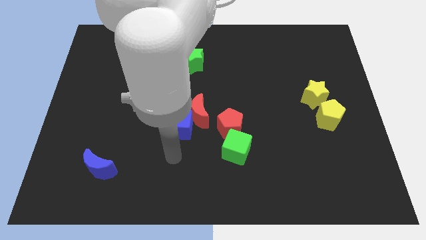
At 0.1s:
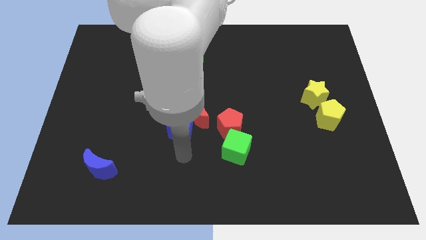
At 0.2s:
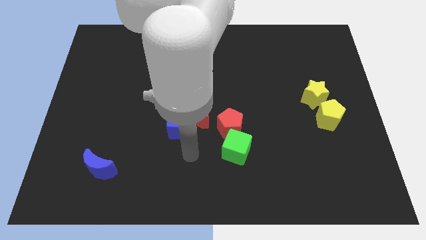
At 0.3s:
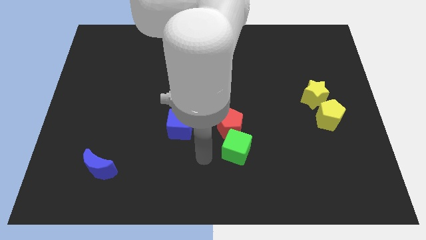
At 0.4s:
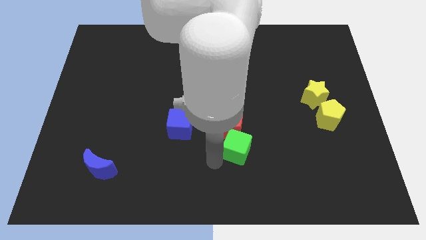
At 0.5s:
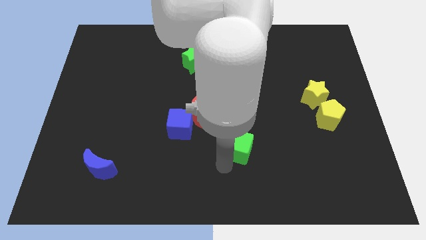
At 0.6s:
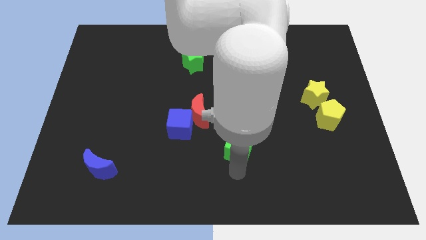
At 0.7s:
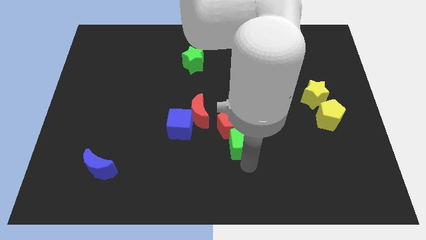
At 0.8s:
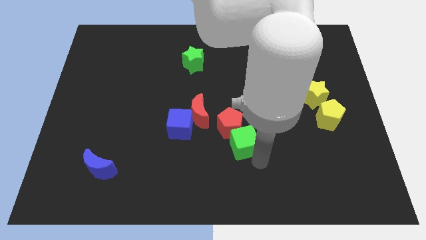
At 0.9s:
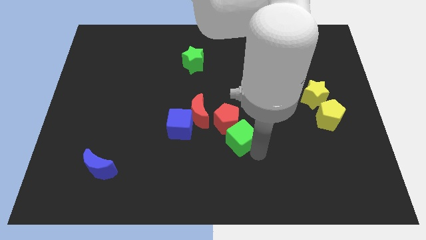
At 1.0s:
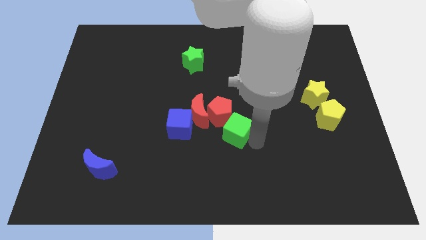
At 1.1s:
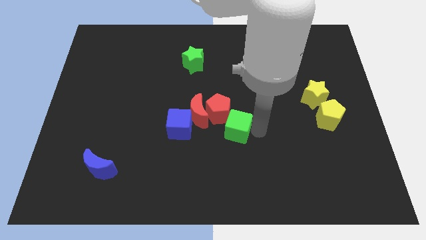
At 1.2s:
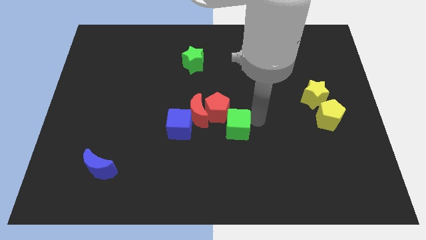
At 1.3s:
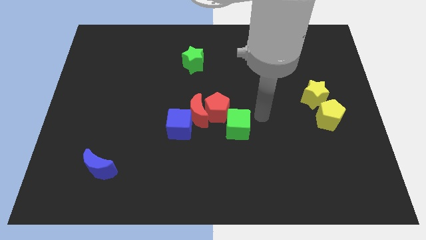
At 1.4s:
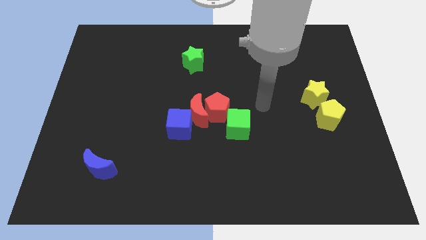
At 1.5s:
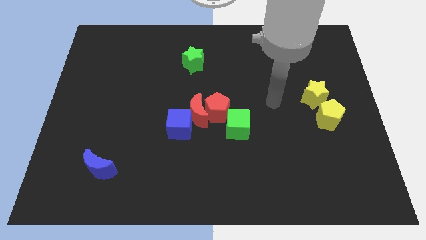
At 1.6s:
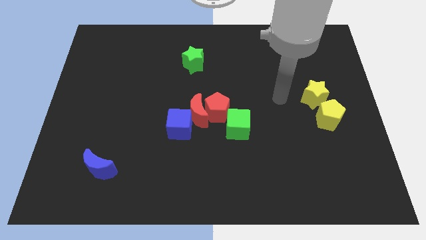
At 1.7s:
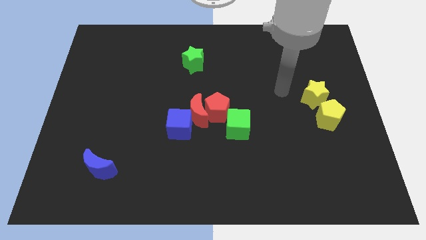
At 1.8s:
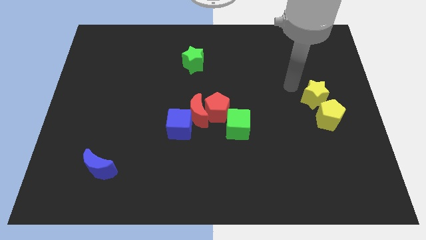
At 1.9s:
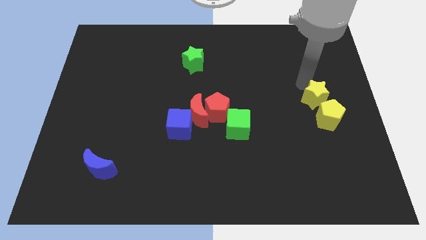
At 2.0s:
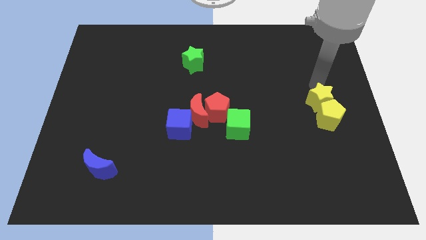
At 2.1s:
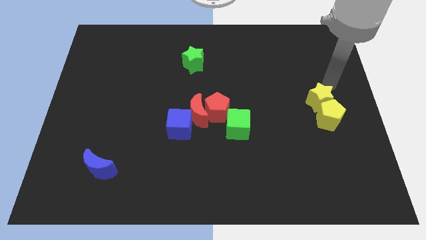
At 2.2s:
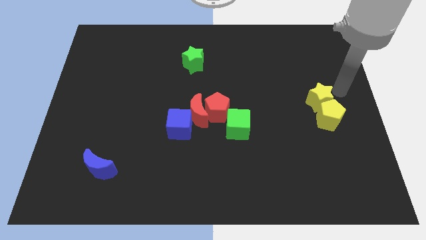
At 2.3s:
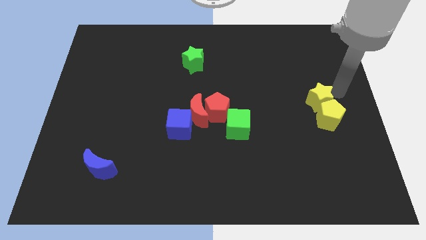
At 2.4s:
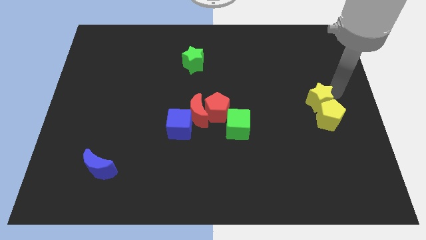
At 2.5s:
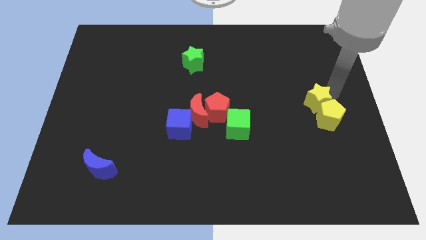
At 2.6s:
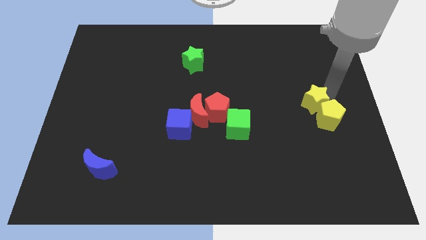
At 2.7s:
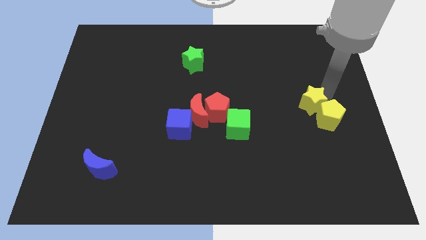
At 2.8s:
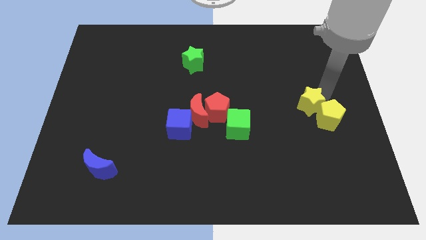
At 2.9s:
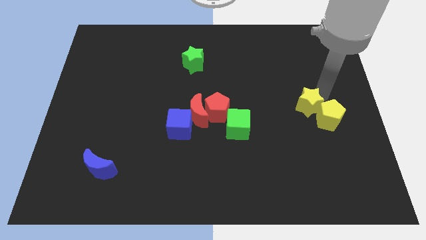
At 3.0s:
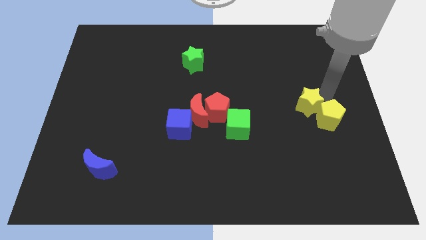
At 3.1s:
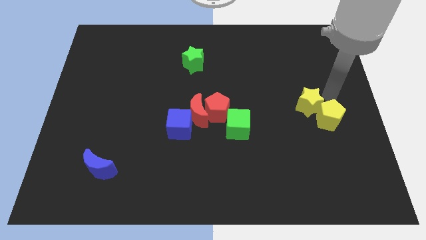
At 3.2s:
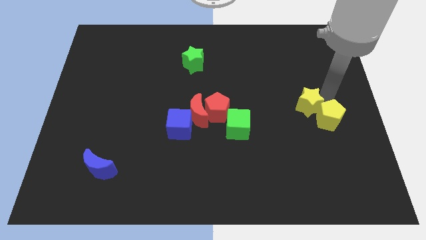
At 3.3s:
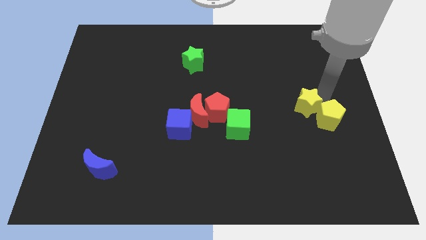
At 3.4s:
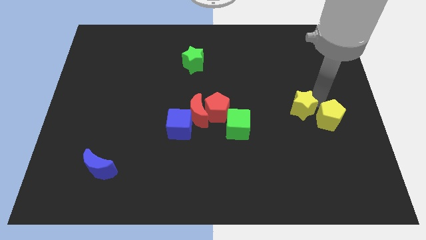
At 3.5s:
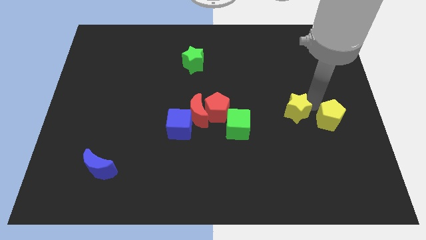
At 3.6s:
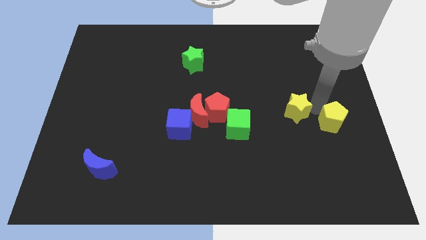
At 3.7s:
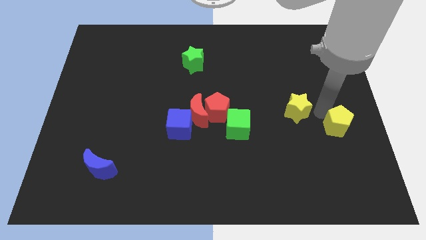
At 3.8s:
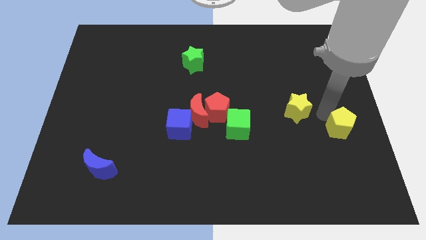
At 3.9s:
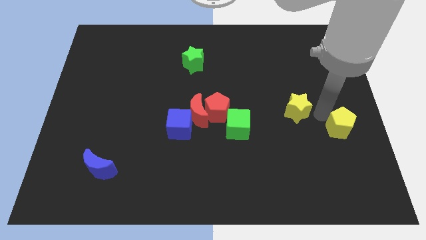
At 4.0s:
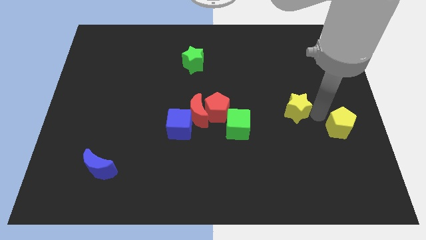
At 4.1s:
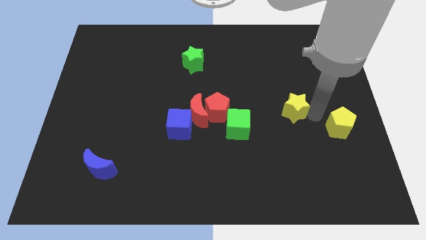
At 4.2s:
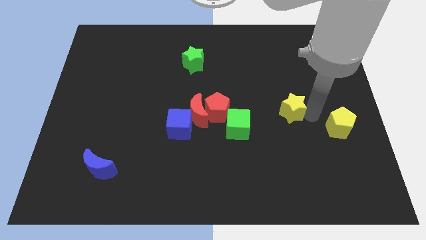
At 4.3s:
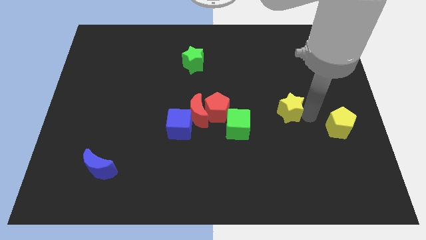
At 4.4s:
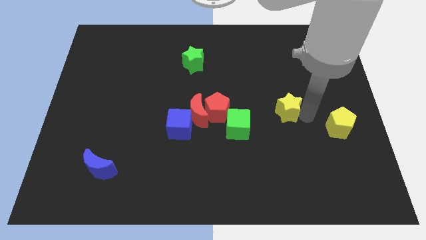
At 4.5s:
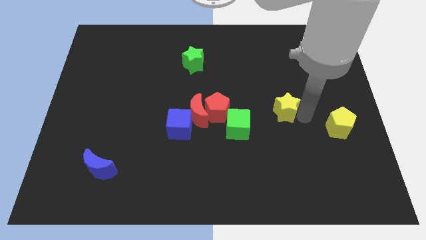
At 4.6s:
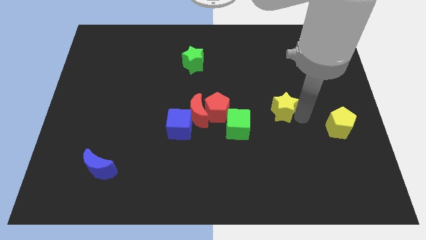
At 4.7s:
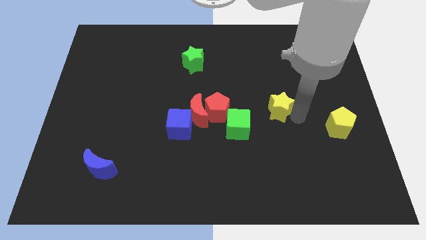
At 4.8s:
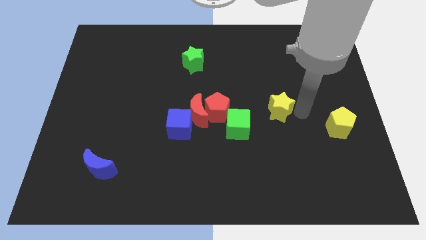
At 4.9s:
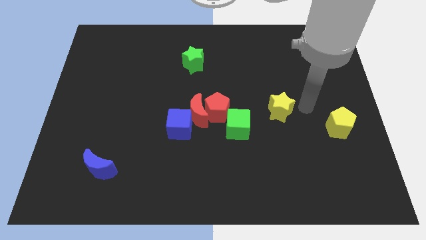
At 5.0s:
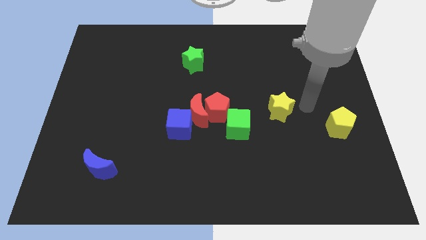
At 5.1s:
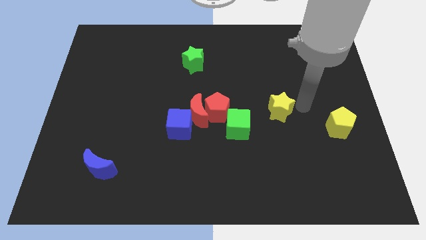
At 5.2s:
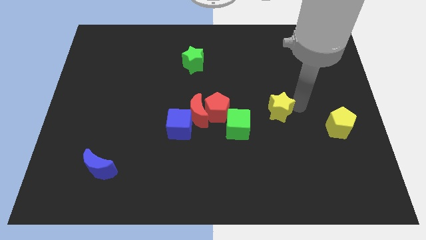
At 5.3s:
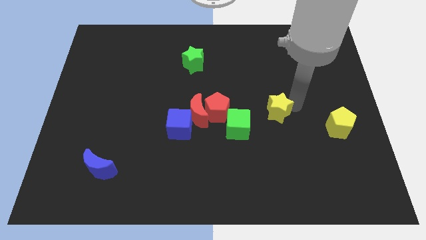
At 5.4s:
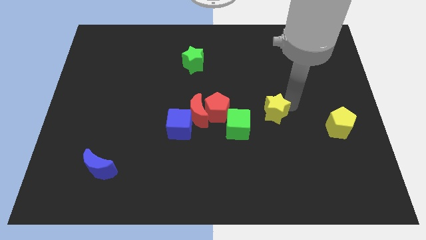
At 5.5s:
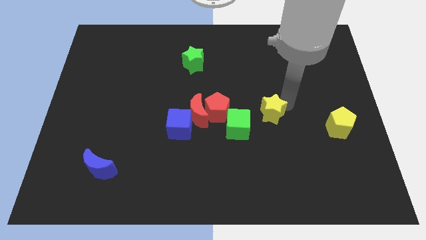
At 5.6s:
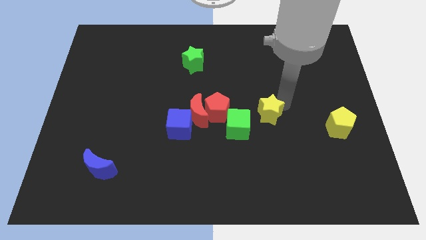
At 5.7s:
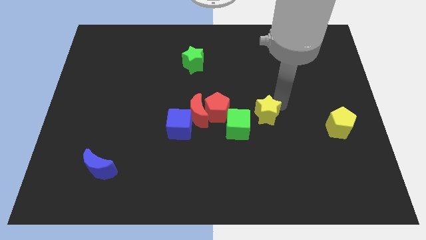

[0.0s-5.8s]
slide the yellow star just right of the red moon

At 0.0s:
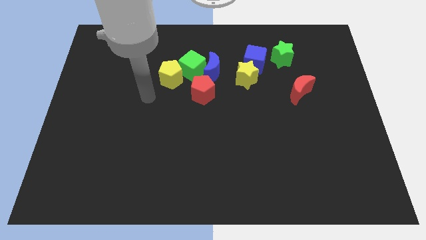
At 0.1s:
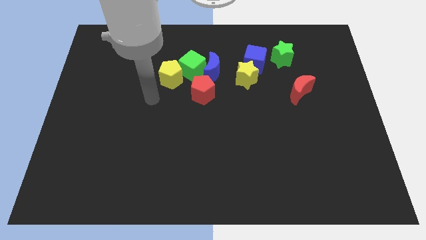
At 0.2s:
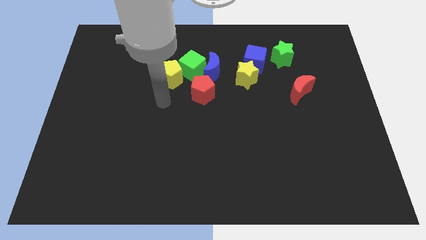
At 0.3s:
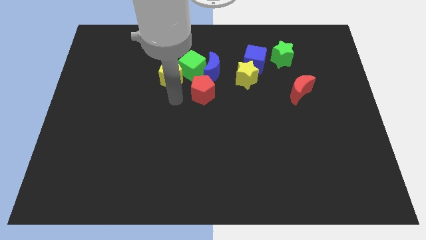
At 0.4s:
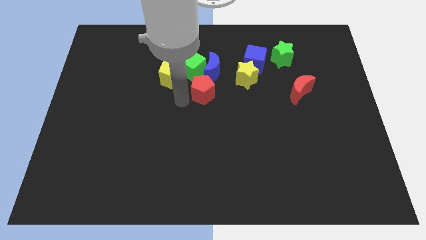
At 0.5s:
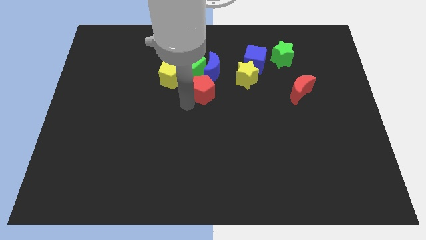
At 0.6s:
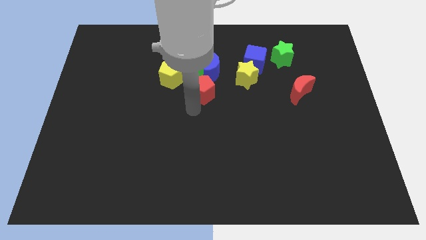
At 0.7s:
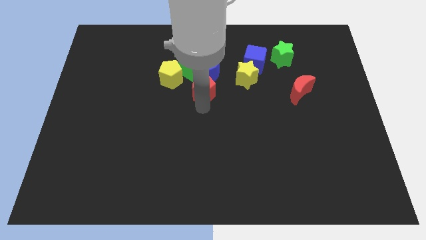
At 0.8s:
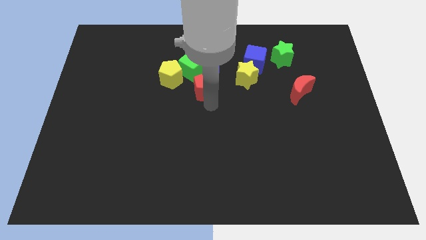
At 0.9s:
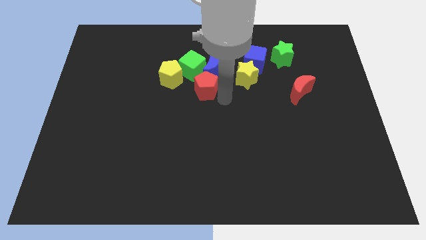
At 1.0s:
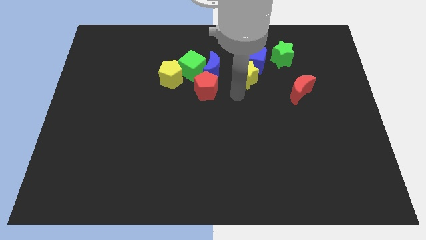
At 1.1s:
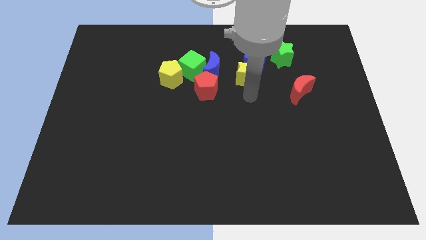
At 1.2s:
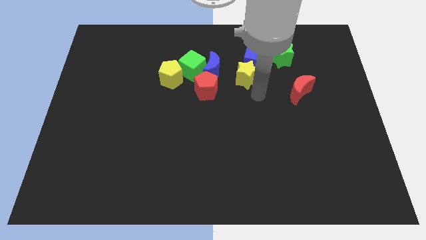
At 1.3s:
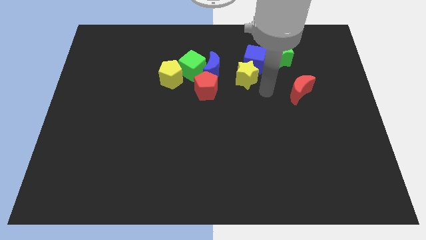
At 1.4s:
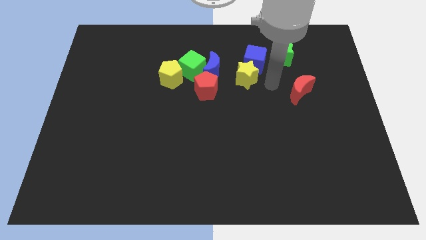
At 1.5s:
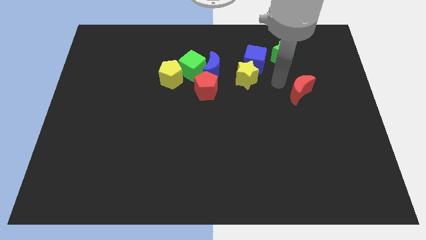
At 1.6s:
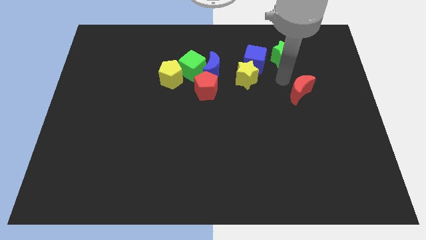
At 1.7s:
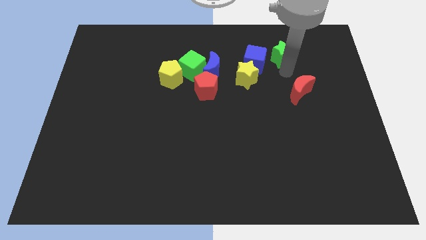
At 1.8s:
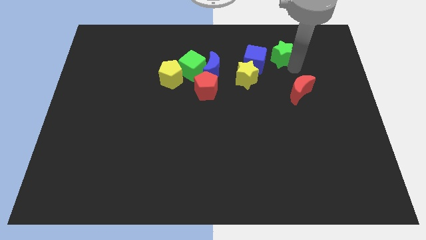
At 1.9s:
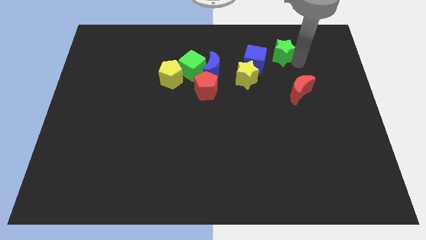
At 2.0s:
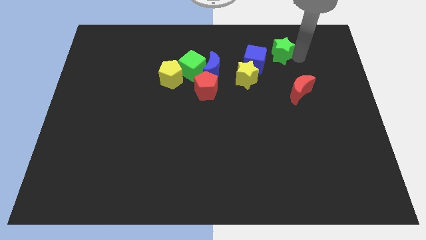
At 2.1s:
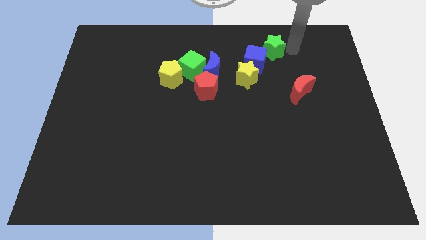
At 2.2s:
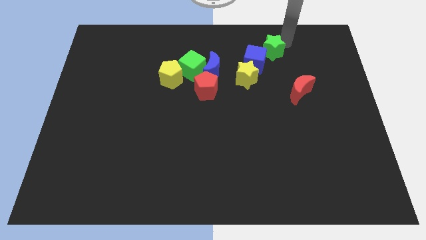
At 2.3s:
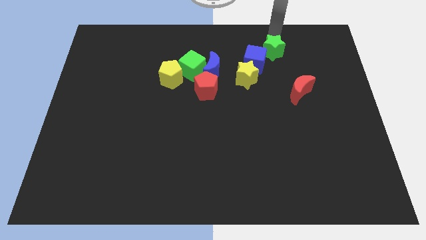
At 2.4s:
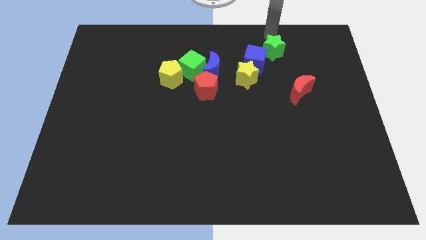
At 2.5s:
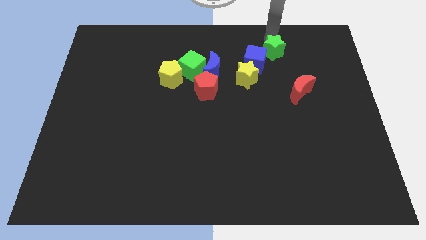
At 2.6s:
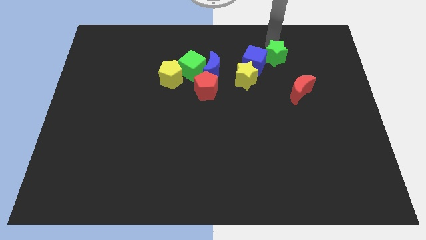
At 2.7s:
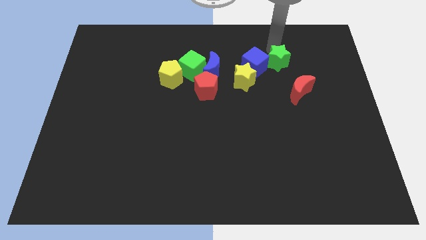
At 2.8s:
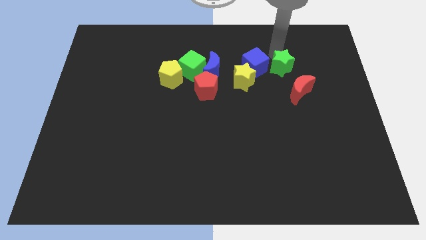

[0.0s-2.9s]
put the green star to the bottom right of the blue cube
